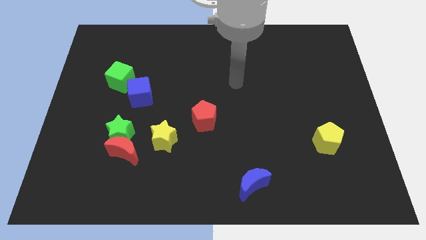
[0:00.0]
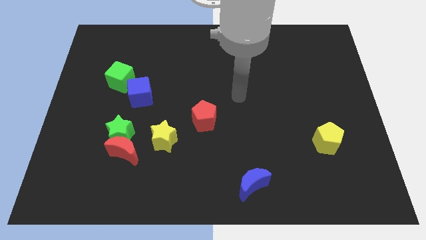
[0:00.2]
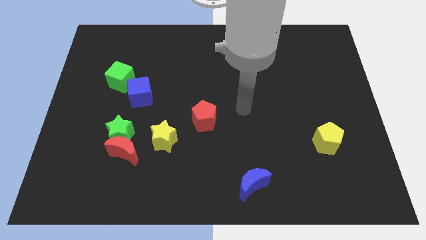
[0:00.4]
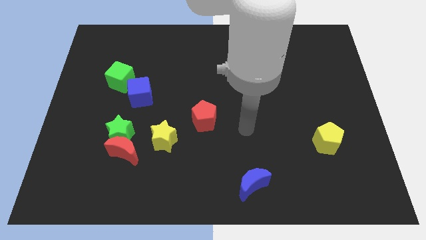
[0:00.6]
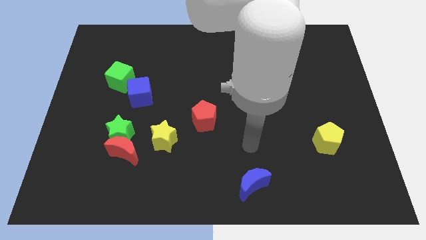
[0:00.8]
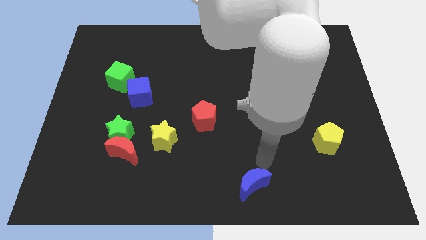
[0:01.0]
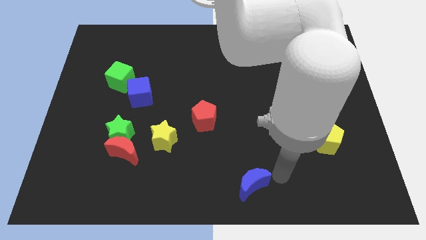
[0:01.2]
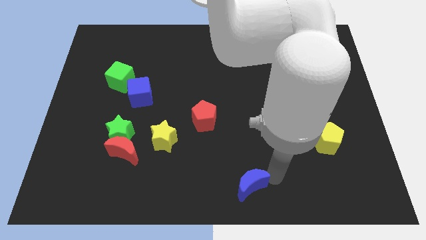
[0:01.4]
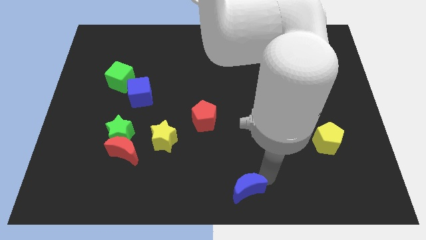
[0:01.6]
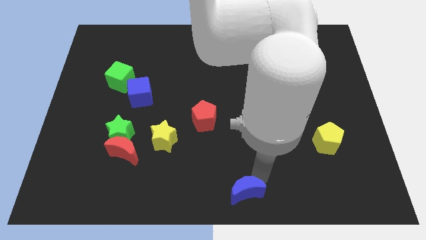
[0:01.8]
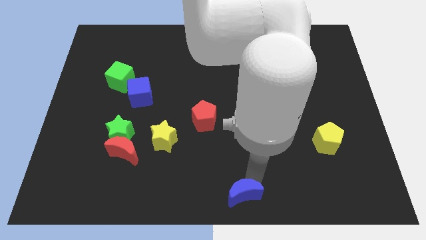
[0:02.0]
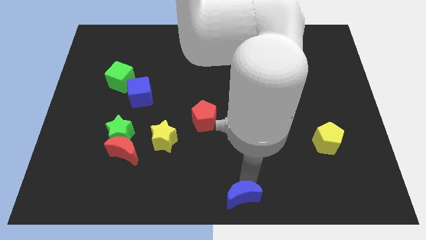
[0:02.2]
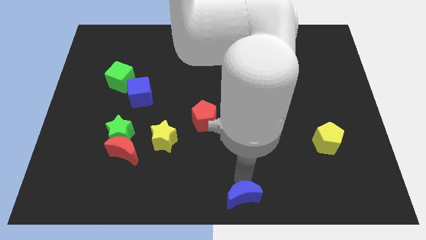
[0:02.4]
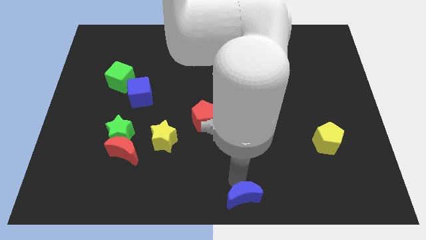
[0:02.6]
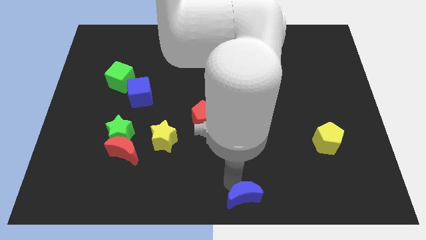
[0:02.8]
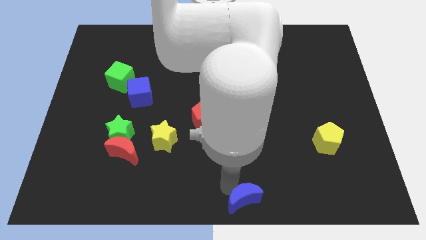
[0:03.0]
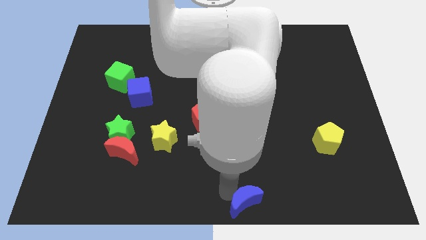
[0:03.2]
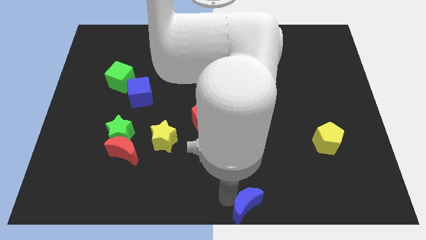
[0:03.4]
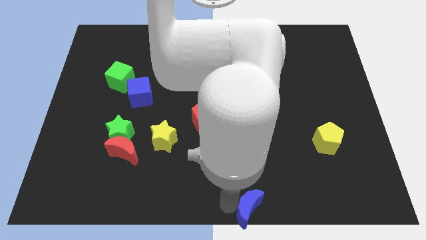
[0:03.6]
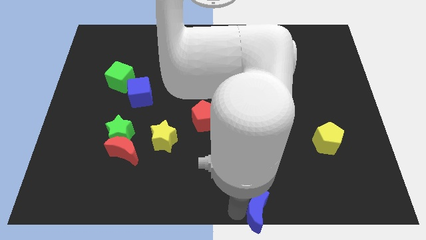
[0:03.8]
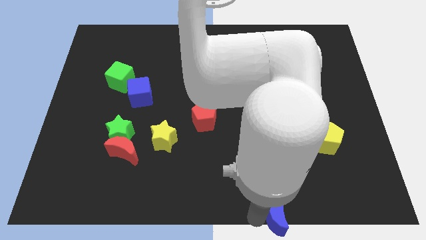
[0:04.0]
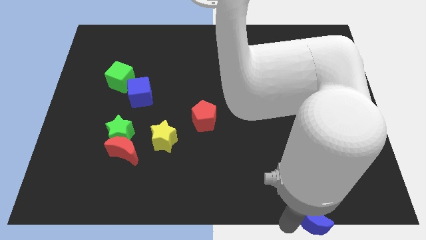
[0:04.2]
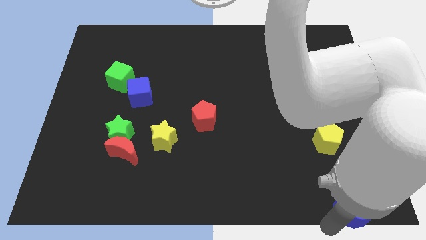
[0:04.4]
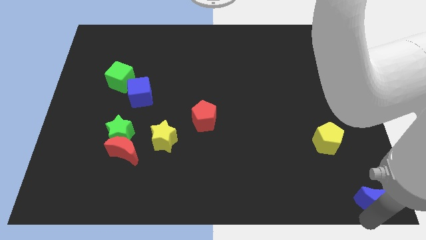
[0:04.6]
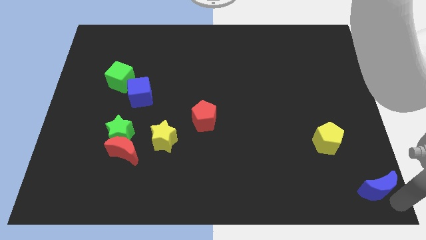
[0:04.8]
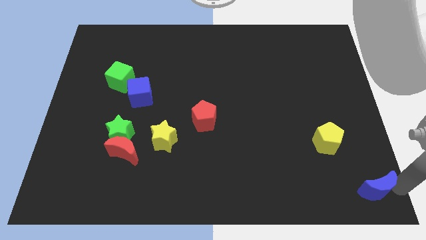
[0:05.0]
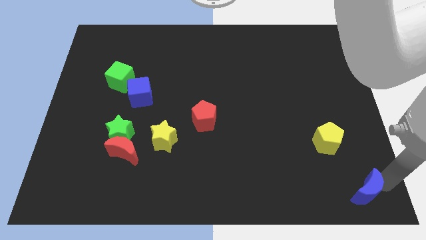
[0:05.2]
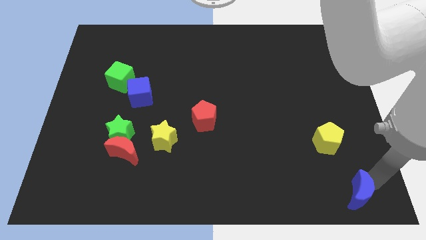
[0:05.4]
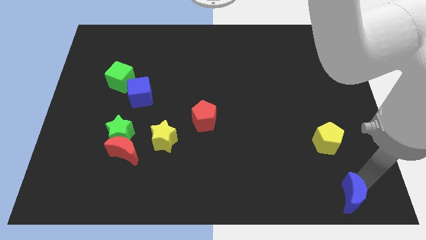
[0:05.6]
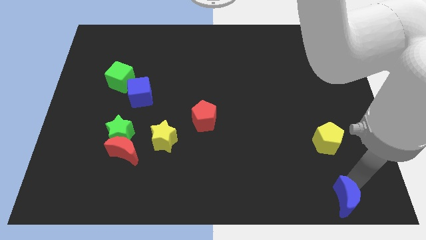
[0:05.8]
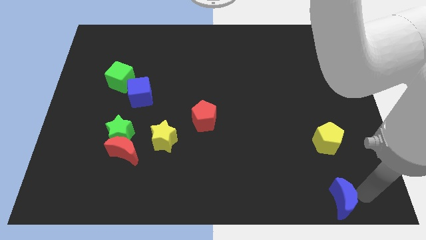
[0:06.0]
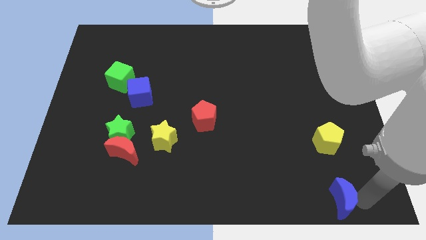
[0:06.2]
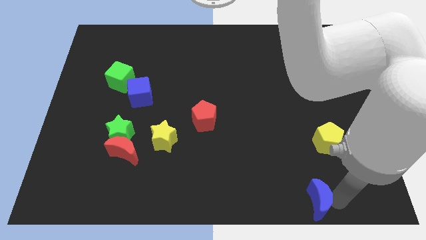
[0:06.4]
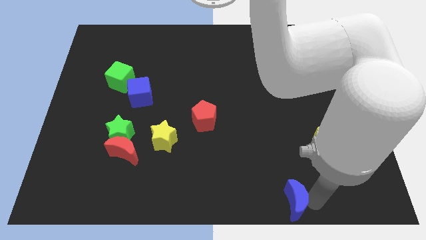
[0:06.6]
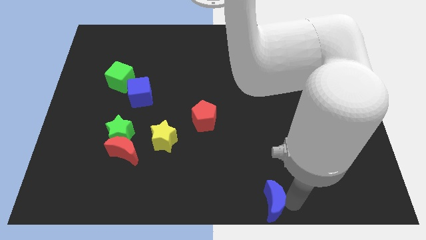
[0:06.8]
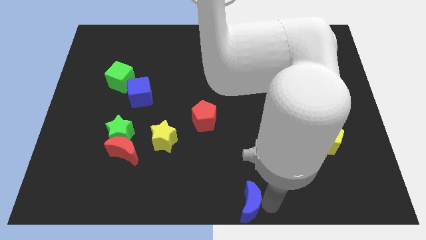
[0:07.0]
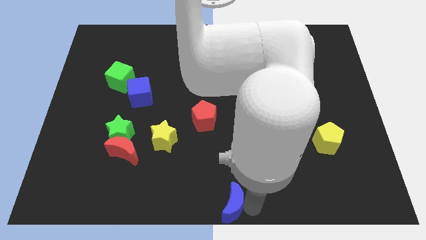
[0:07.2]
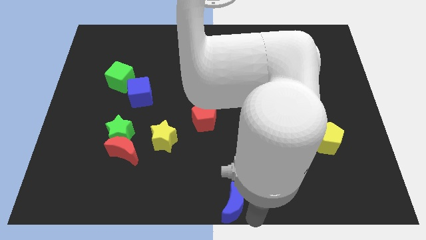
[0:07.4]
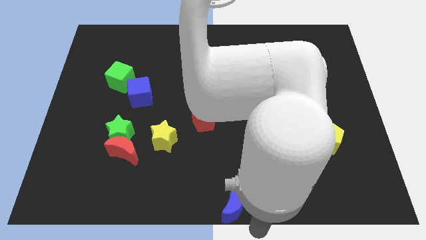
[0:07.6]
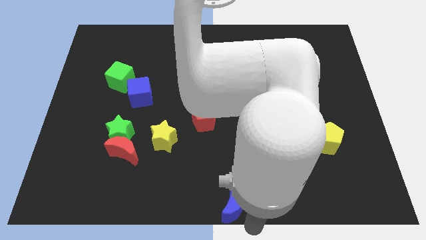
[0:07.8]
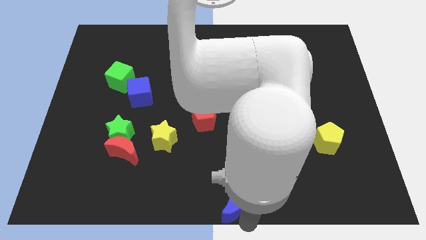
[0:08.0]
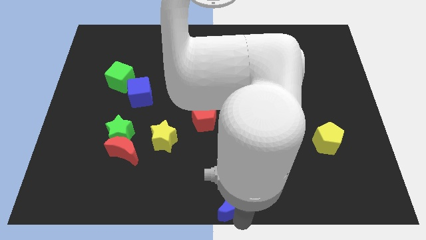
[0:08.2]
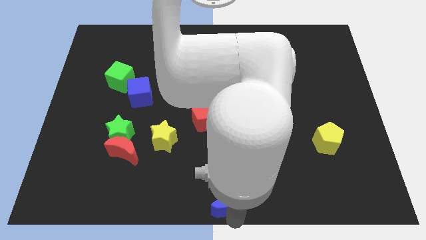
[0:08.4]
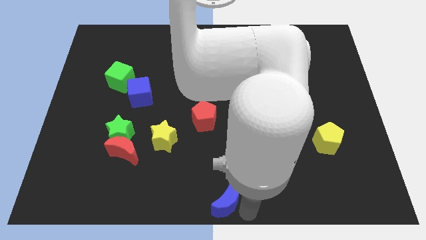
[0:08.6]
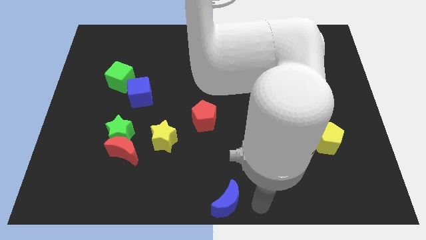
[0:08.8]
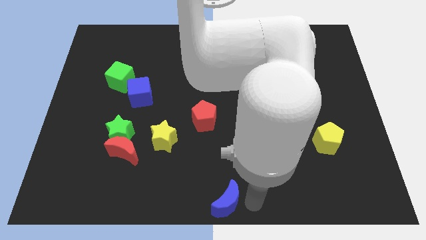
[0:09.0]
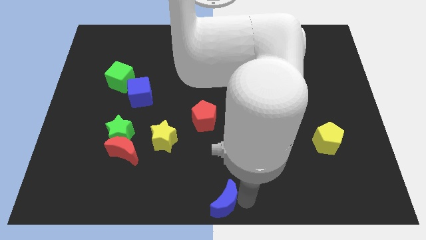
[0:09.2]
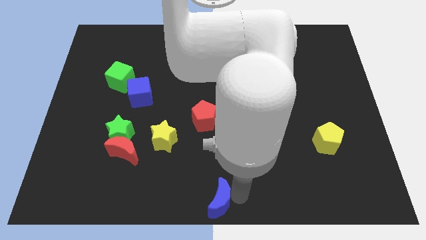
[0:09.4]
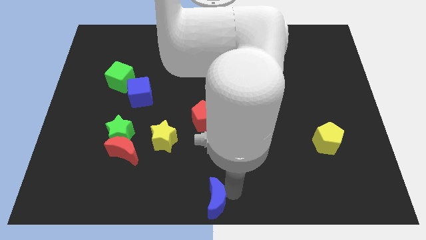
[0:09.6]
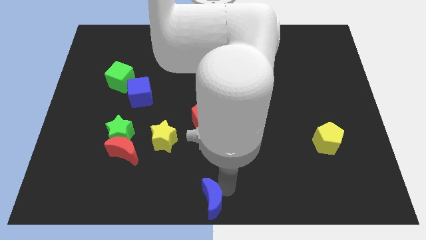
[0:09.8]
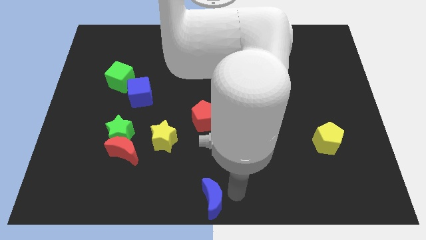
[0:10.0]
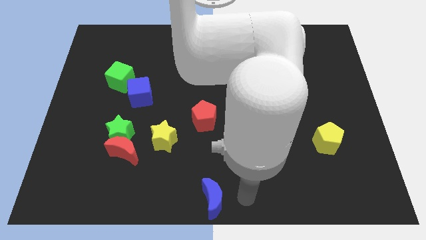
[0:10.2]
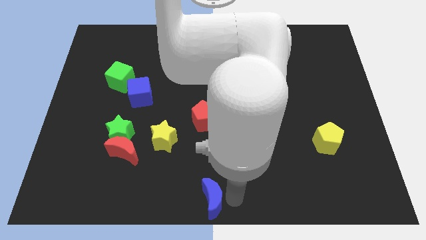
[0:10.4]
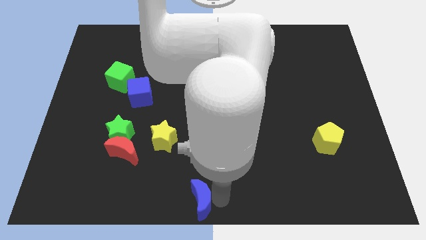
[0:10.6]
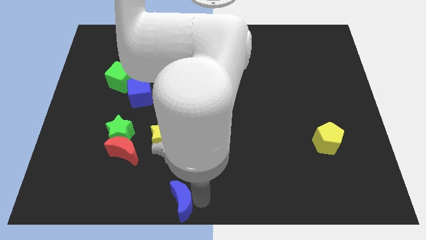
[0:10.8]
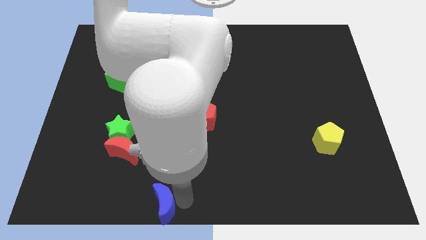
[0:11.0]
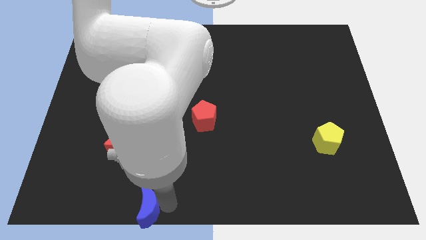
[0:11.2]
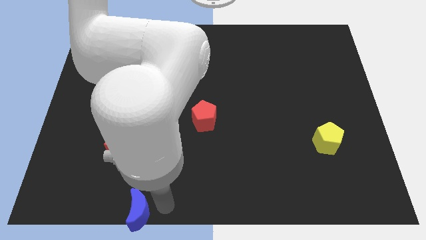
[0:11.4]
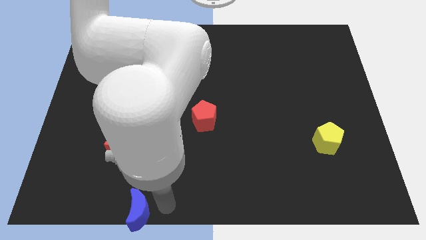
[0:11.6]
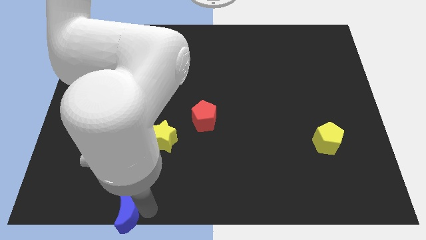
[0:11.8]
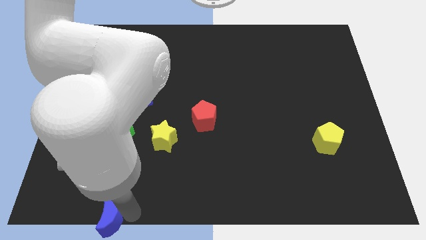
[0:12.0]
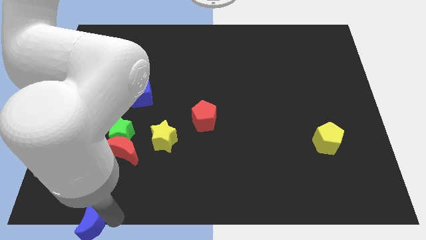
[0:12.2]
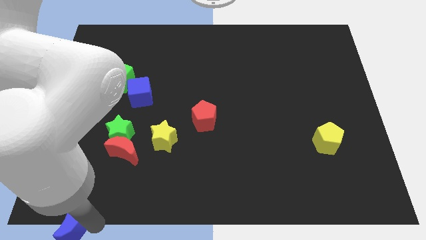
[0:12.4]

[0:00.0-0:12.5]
slide the blue moon to the bottom left

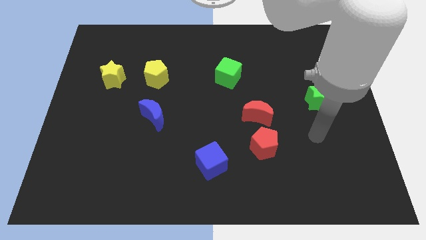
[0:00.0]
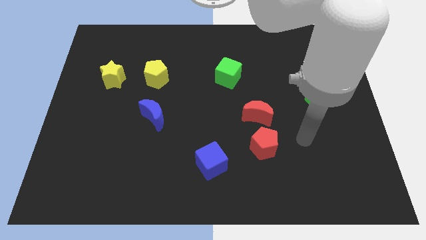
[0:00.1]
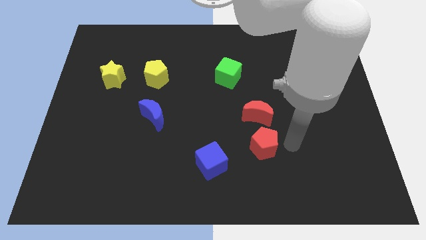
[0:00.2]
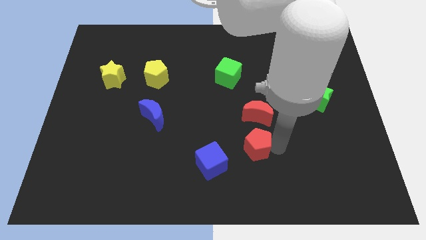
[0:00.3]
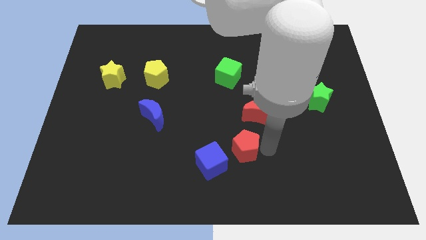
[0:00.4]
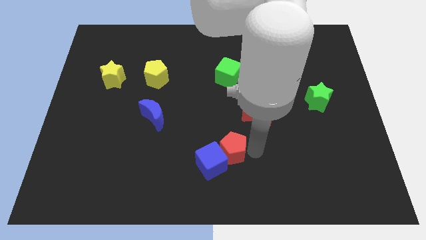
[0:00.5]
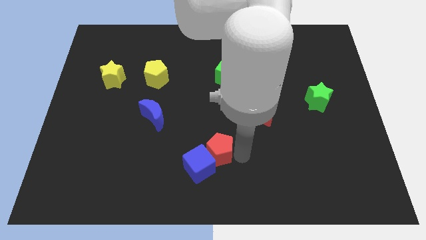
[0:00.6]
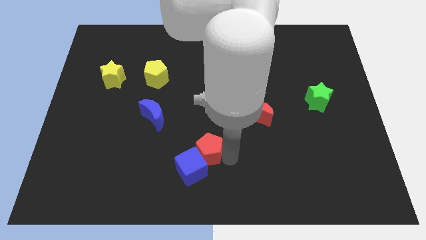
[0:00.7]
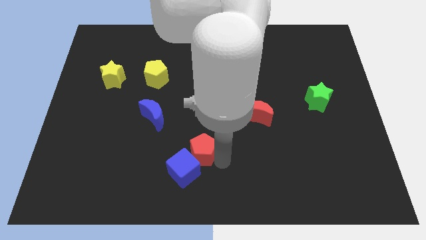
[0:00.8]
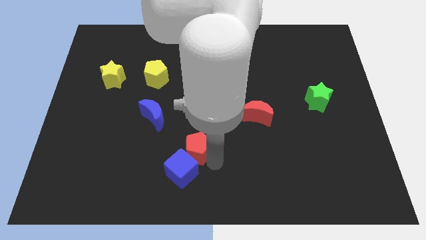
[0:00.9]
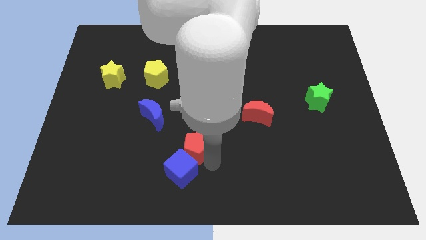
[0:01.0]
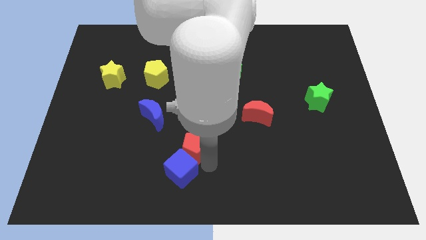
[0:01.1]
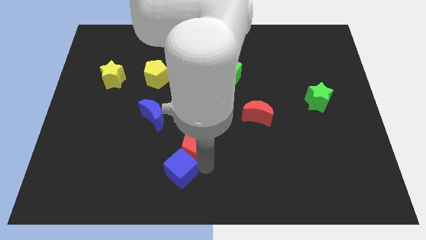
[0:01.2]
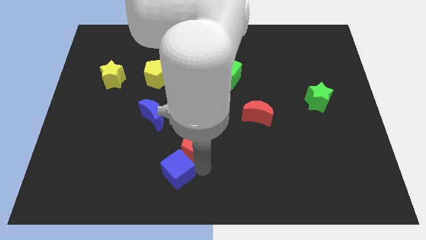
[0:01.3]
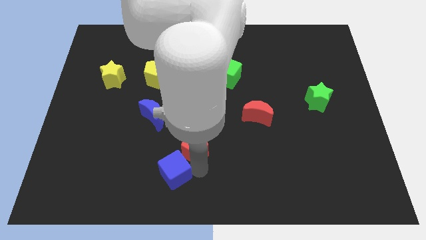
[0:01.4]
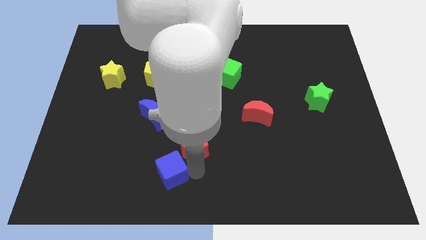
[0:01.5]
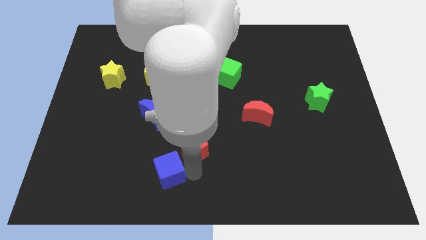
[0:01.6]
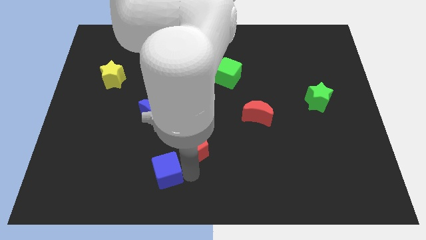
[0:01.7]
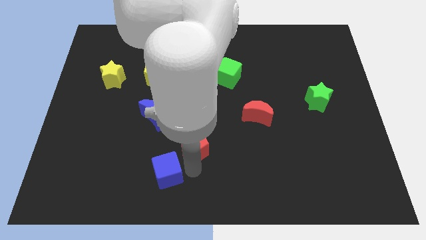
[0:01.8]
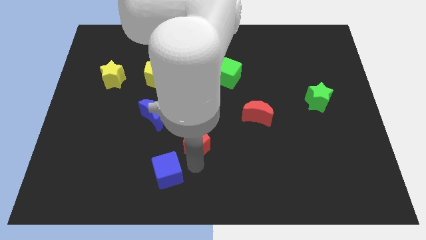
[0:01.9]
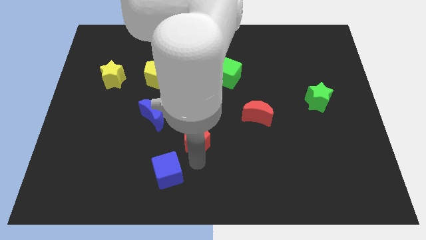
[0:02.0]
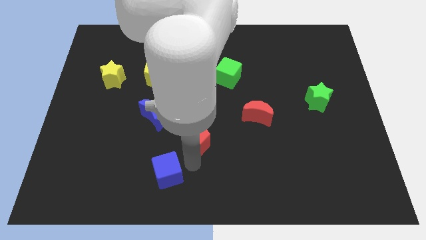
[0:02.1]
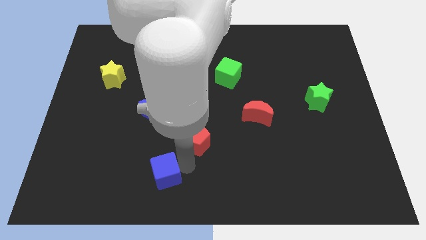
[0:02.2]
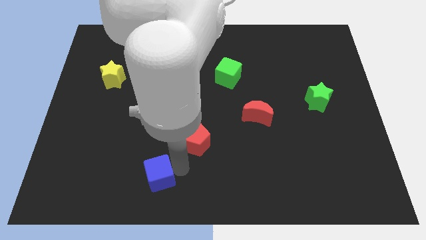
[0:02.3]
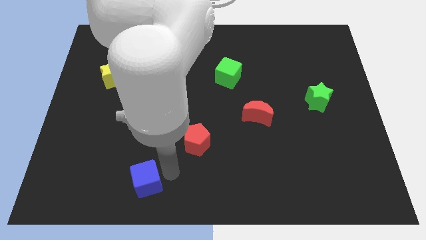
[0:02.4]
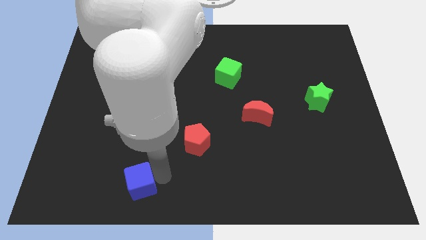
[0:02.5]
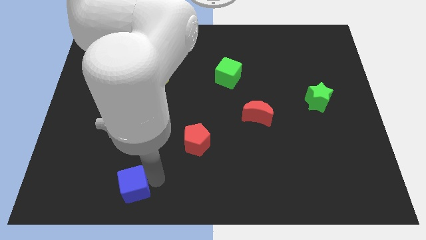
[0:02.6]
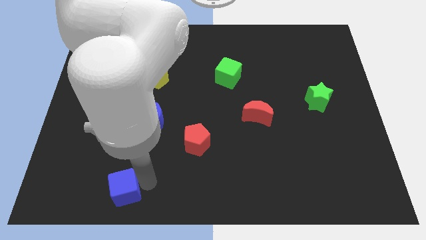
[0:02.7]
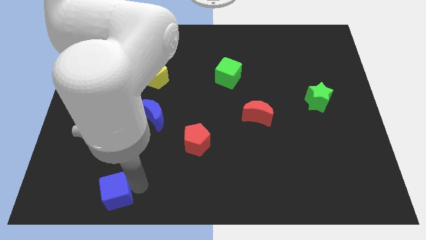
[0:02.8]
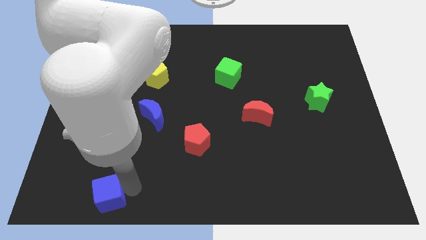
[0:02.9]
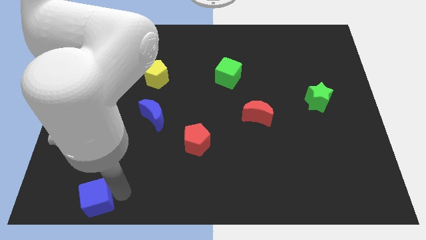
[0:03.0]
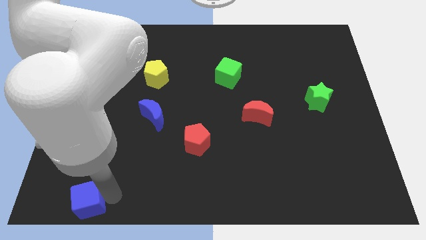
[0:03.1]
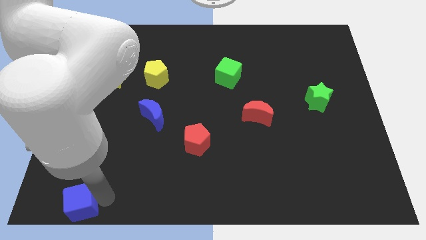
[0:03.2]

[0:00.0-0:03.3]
push the blue cube to the bottom left
